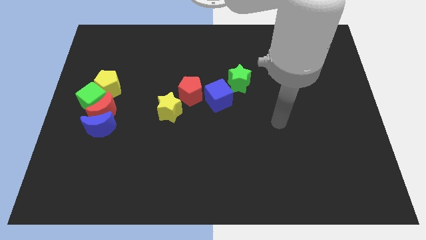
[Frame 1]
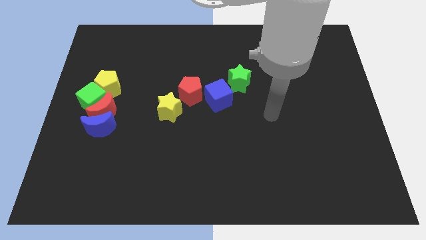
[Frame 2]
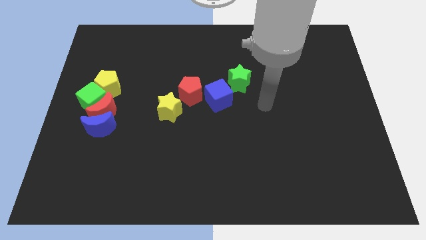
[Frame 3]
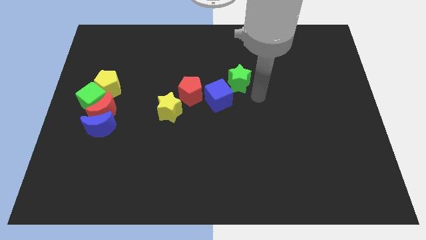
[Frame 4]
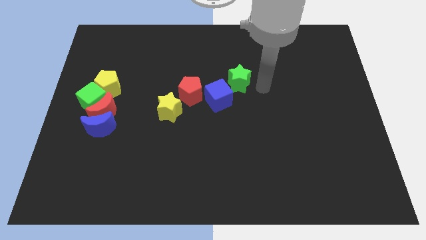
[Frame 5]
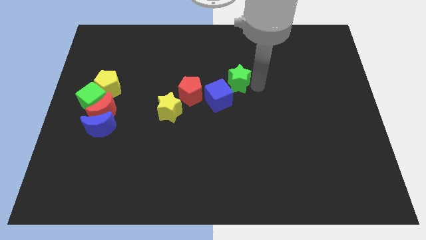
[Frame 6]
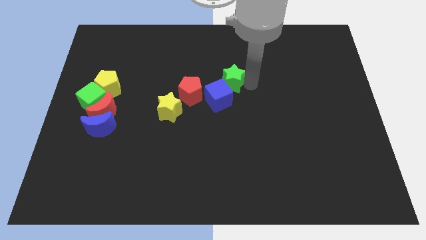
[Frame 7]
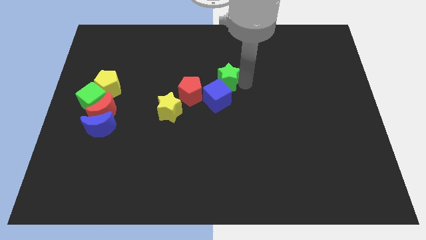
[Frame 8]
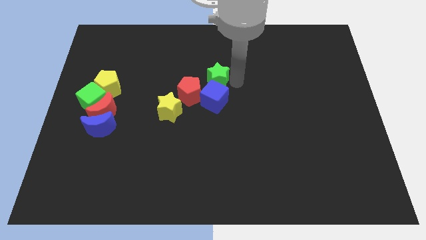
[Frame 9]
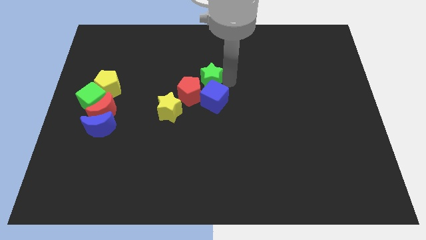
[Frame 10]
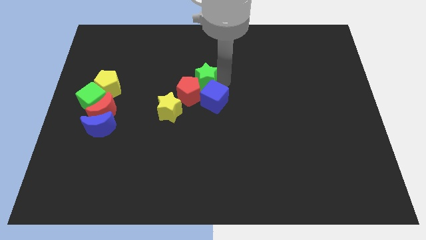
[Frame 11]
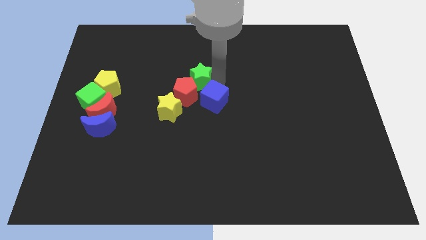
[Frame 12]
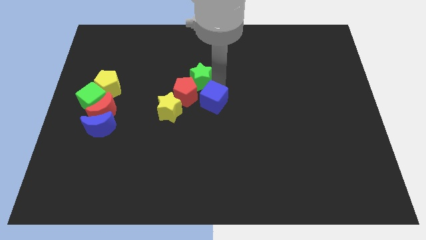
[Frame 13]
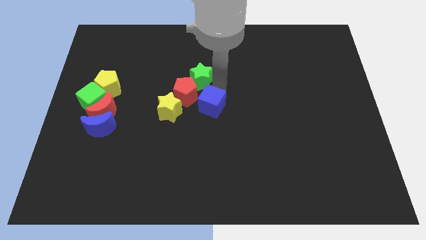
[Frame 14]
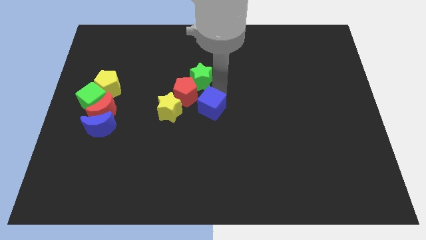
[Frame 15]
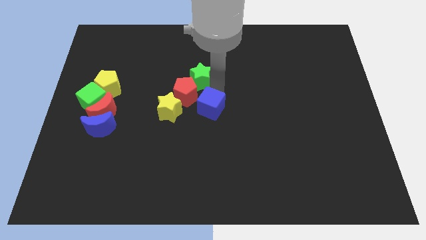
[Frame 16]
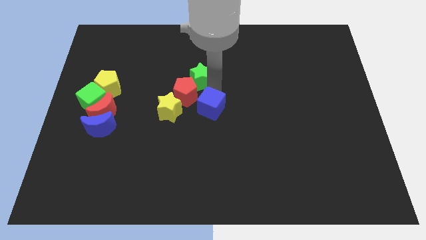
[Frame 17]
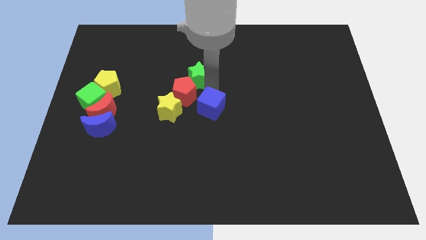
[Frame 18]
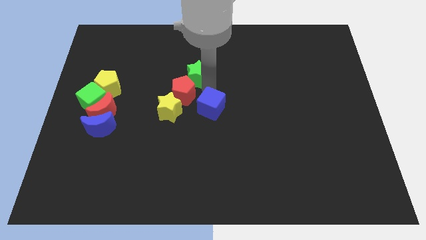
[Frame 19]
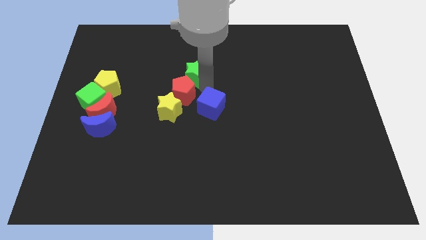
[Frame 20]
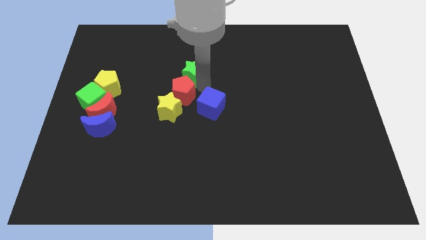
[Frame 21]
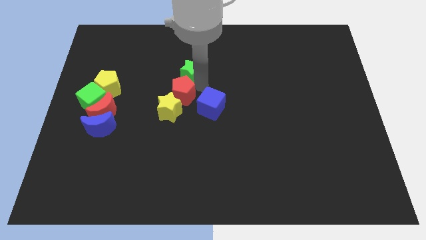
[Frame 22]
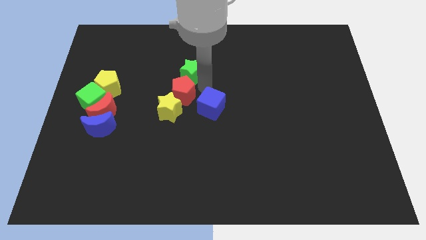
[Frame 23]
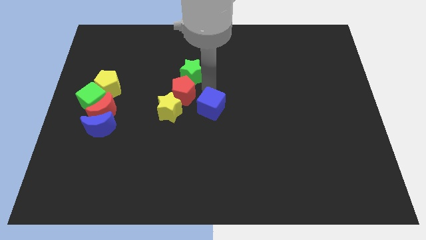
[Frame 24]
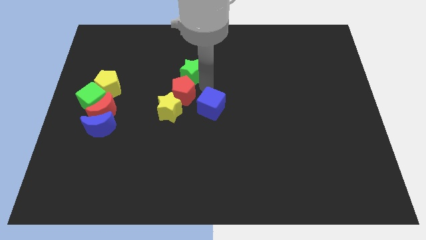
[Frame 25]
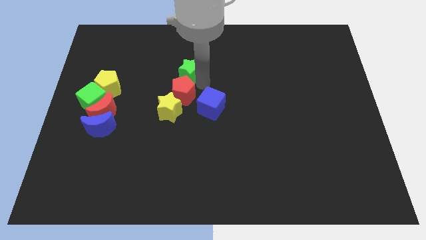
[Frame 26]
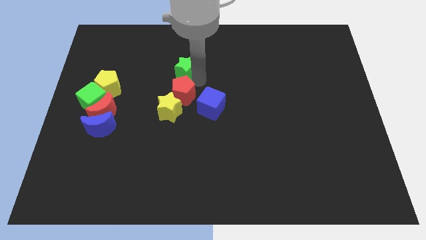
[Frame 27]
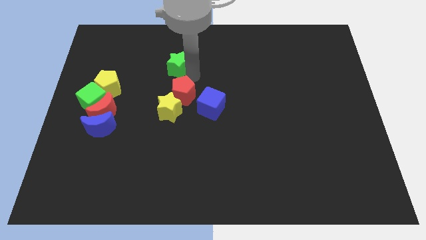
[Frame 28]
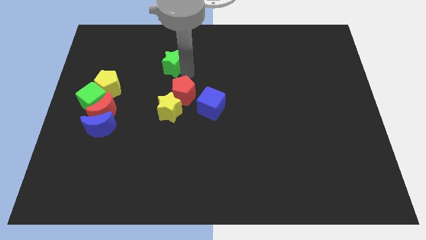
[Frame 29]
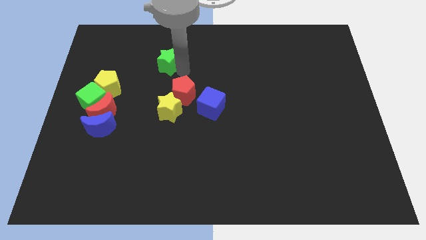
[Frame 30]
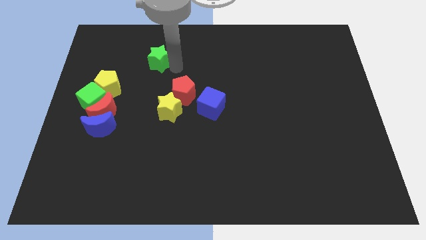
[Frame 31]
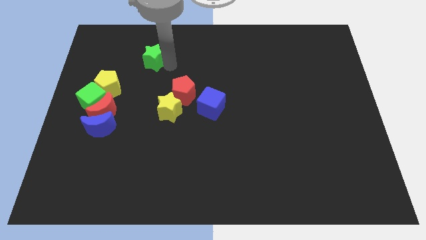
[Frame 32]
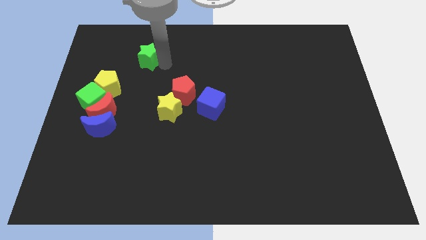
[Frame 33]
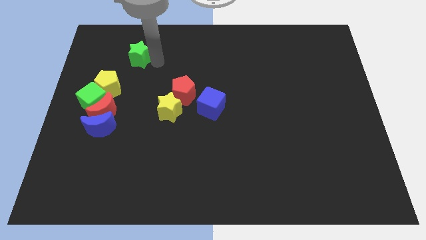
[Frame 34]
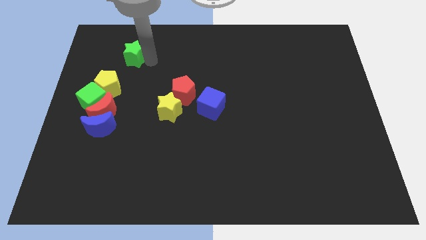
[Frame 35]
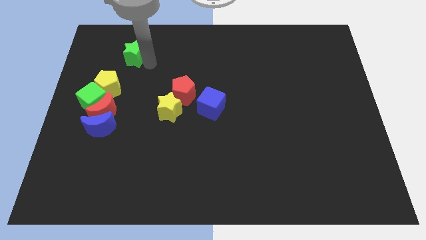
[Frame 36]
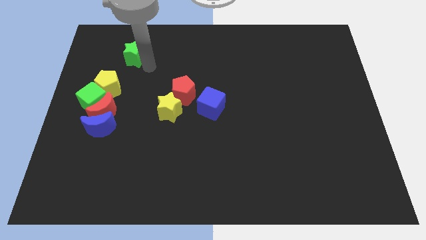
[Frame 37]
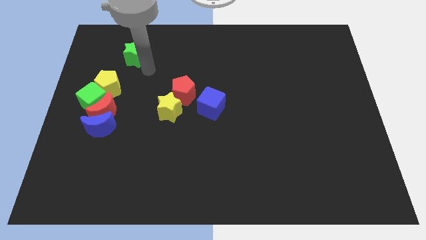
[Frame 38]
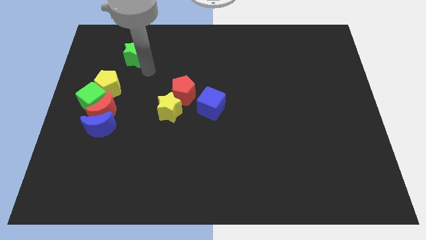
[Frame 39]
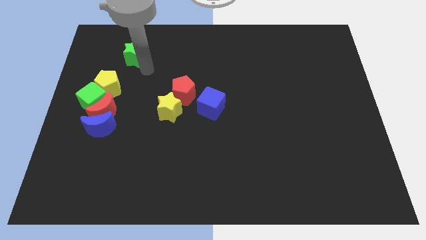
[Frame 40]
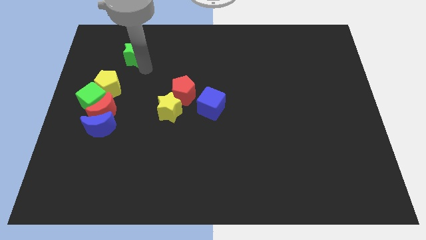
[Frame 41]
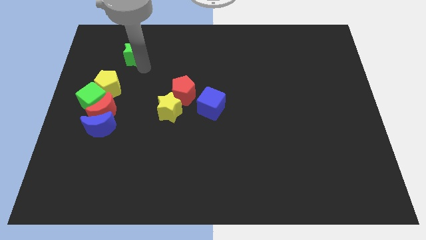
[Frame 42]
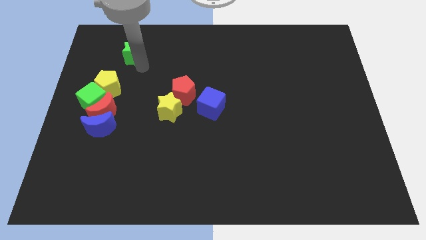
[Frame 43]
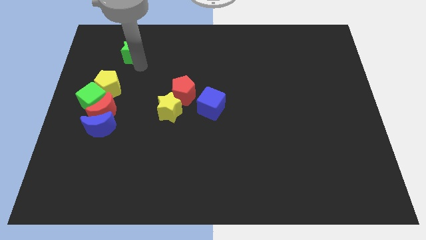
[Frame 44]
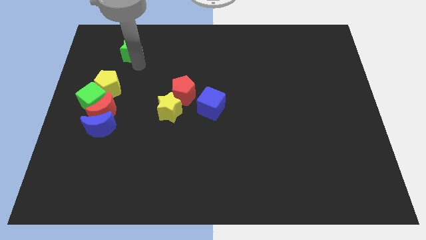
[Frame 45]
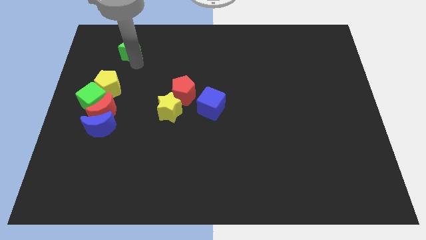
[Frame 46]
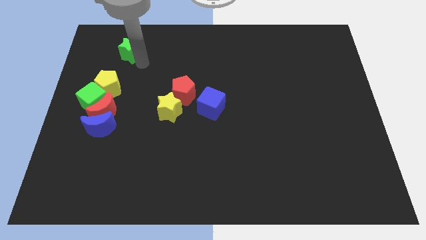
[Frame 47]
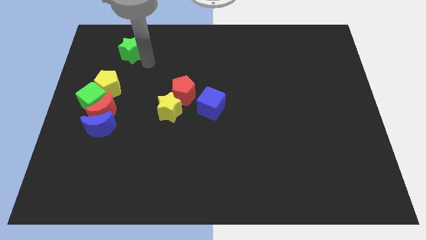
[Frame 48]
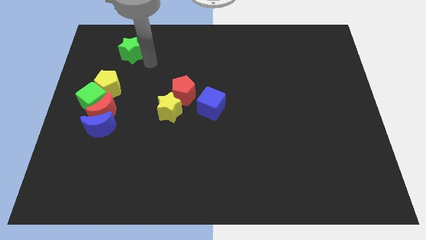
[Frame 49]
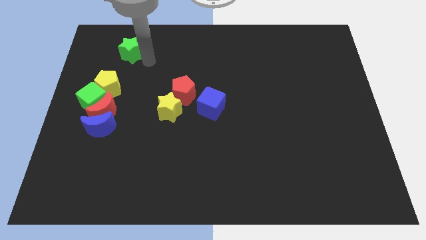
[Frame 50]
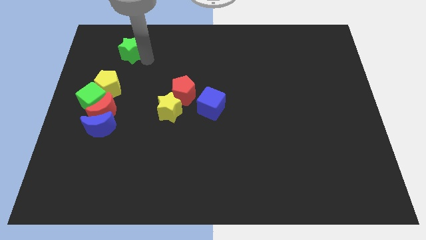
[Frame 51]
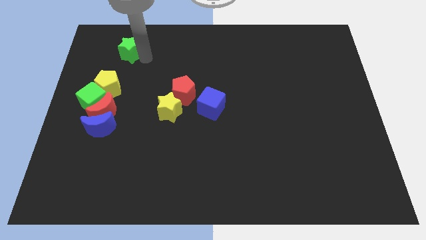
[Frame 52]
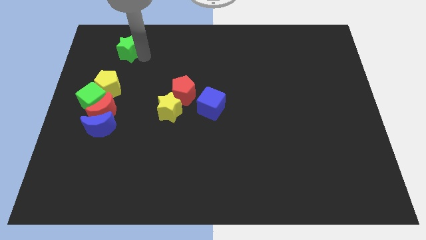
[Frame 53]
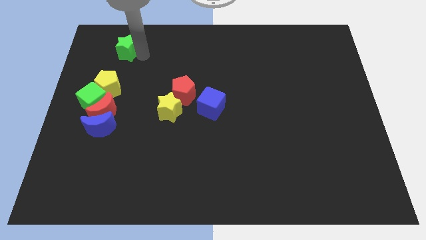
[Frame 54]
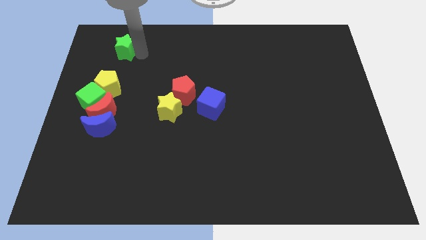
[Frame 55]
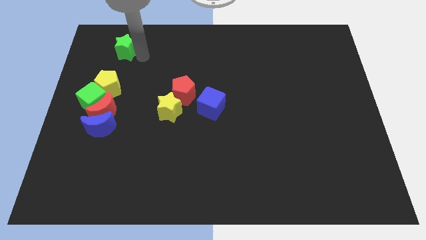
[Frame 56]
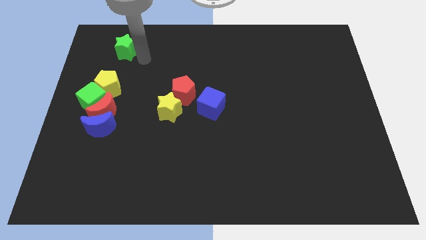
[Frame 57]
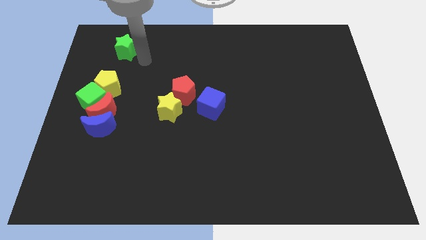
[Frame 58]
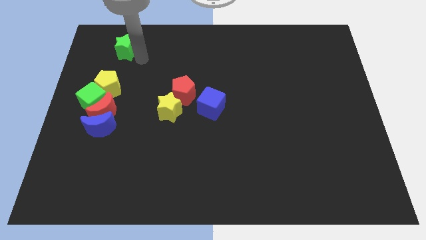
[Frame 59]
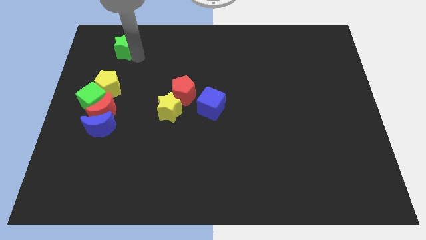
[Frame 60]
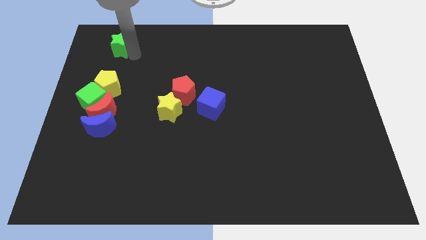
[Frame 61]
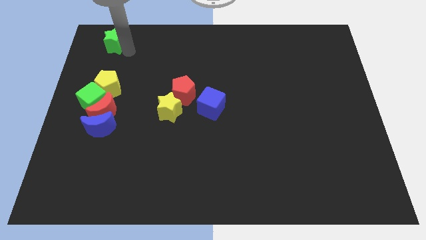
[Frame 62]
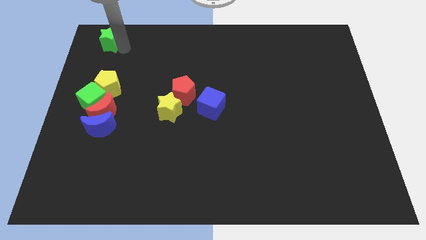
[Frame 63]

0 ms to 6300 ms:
put the green star to the top left of the board

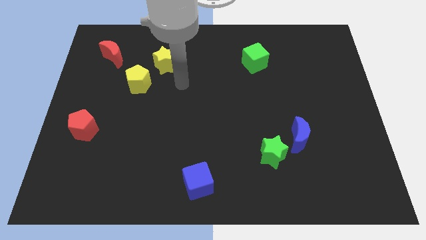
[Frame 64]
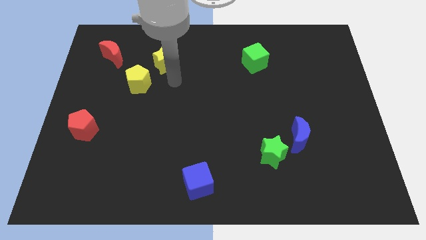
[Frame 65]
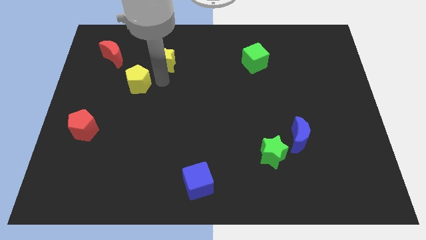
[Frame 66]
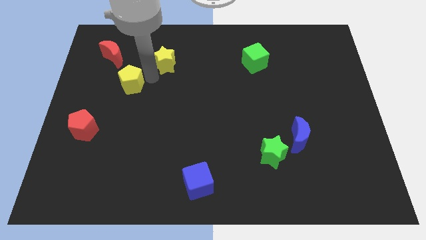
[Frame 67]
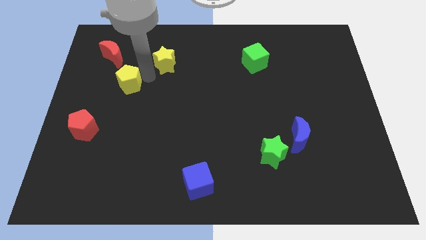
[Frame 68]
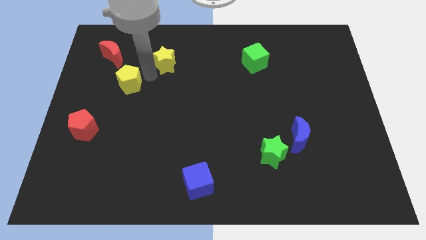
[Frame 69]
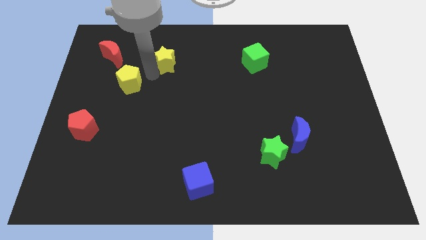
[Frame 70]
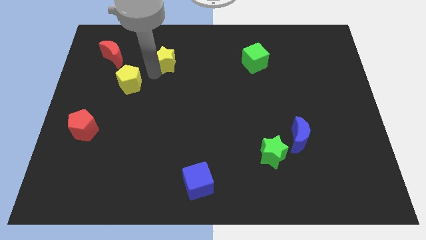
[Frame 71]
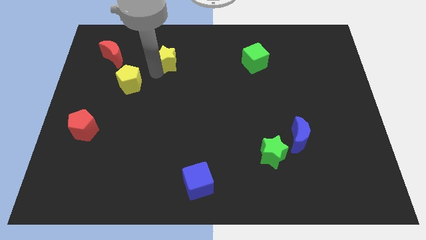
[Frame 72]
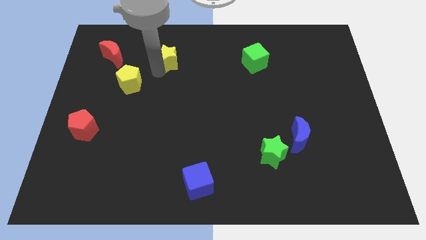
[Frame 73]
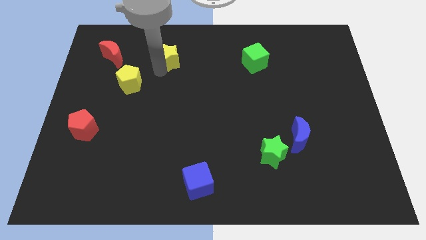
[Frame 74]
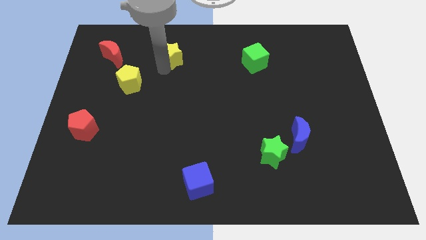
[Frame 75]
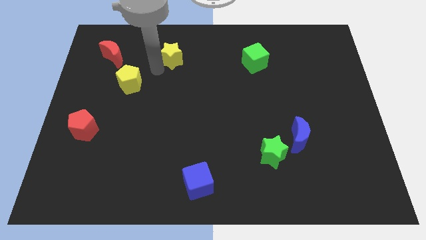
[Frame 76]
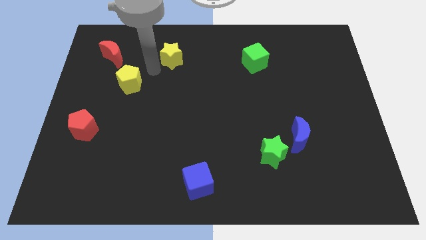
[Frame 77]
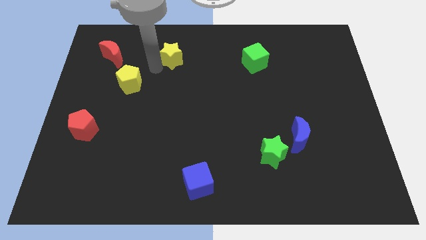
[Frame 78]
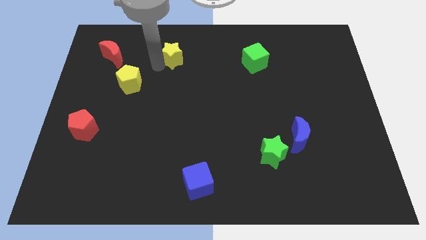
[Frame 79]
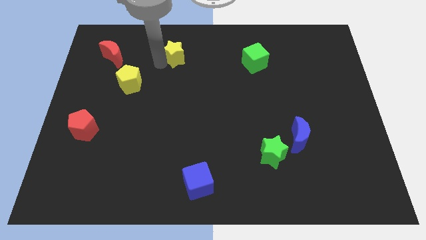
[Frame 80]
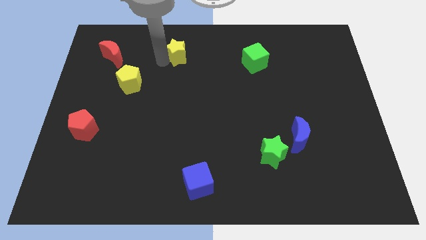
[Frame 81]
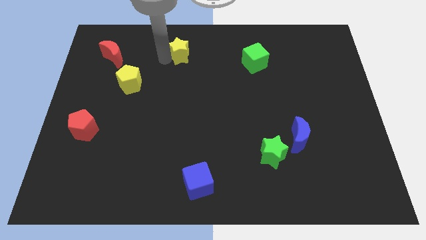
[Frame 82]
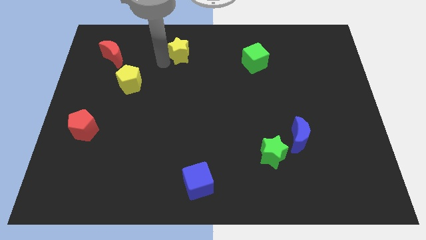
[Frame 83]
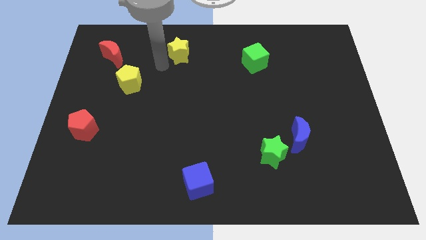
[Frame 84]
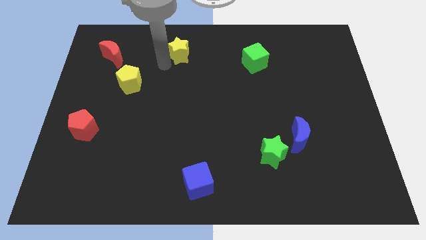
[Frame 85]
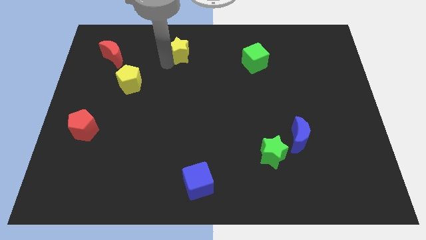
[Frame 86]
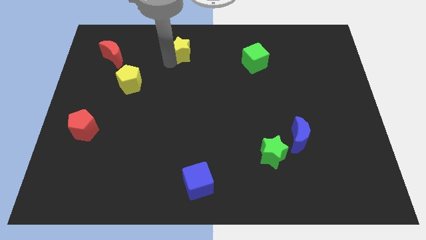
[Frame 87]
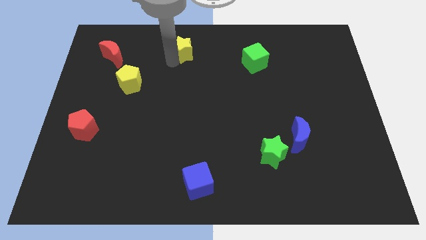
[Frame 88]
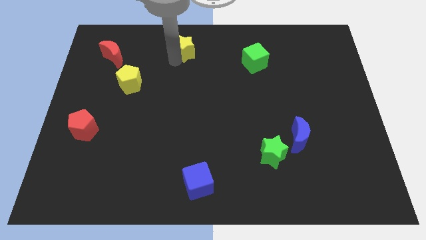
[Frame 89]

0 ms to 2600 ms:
move the yellow star to the top side
